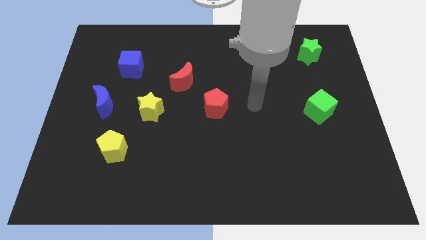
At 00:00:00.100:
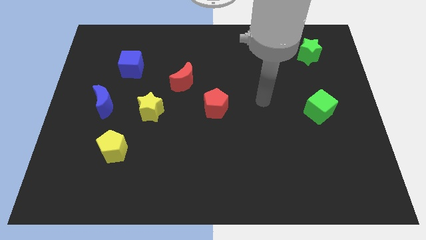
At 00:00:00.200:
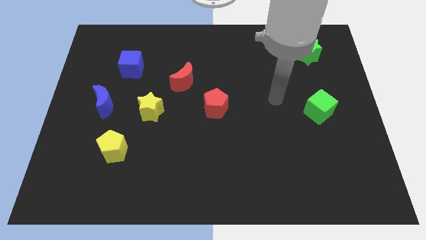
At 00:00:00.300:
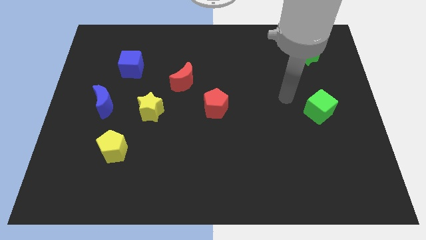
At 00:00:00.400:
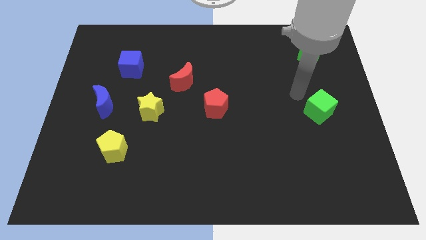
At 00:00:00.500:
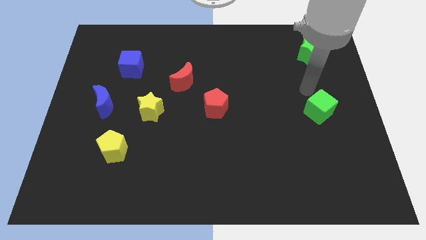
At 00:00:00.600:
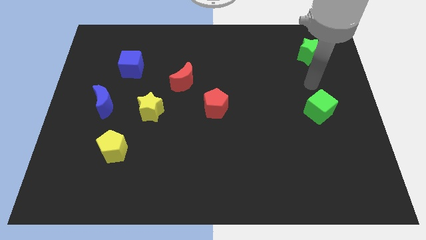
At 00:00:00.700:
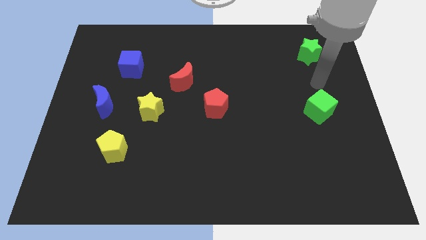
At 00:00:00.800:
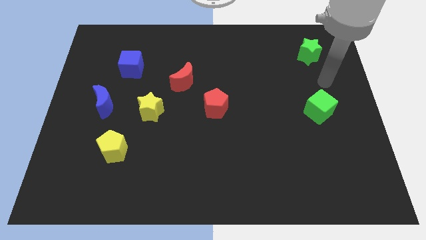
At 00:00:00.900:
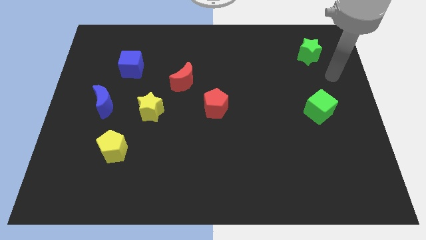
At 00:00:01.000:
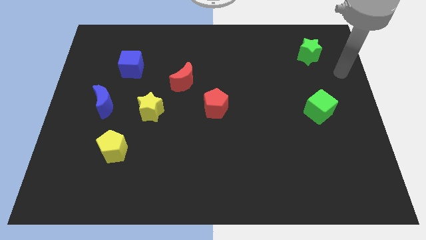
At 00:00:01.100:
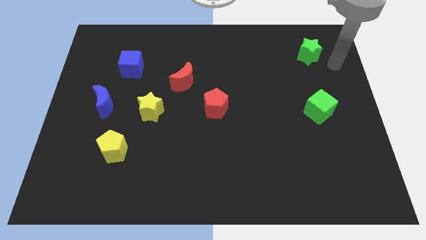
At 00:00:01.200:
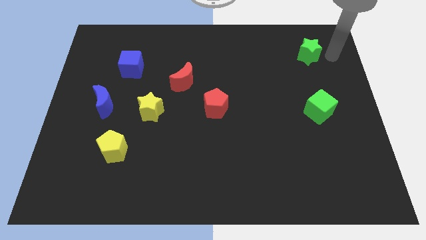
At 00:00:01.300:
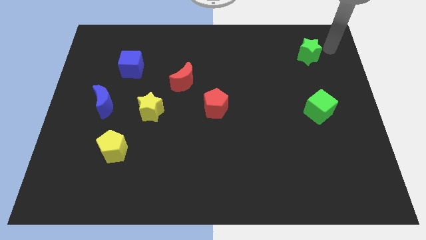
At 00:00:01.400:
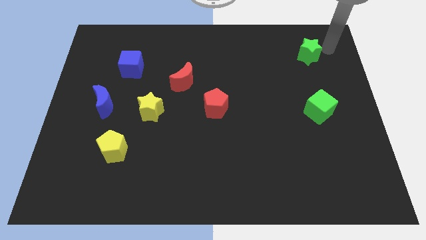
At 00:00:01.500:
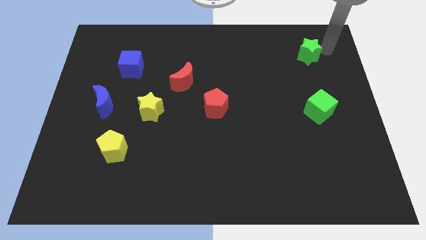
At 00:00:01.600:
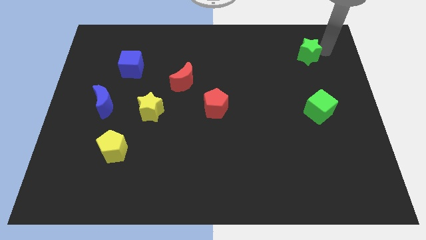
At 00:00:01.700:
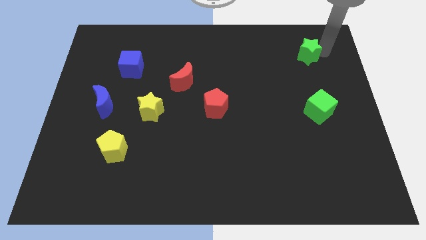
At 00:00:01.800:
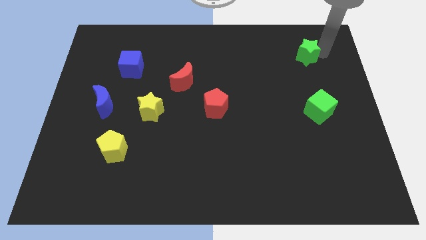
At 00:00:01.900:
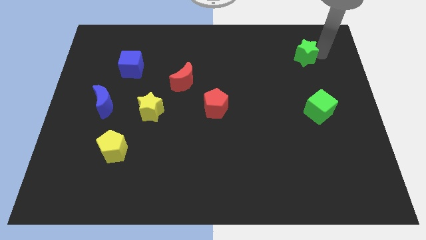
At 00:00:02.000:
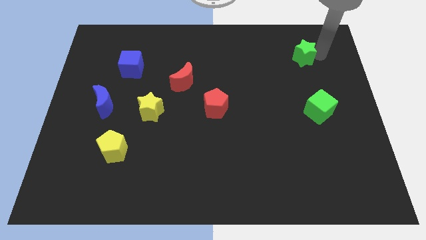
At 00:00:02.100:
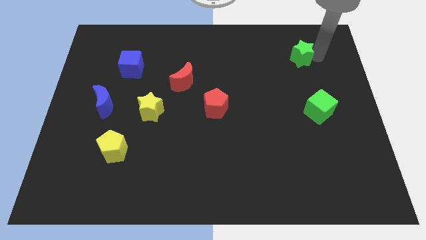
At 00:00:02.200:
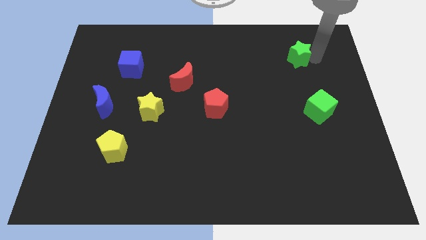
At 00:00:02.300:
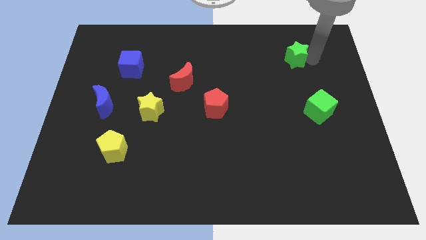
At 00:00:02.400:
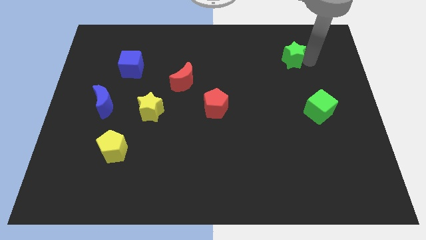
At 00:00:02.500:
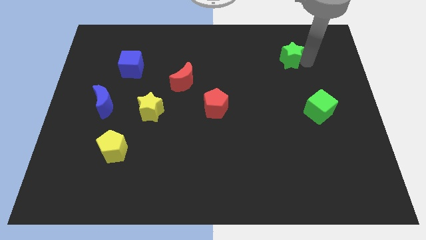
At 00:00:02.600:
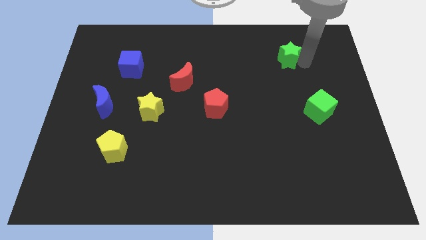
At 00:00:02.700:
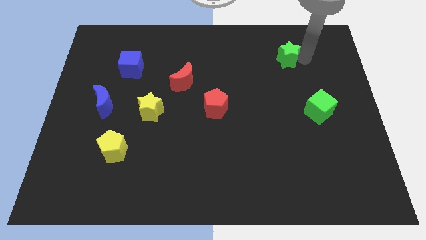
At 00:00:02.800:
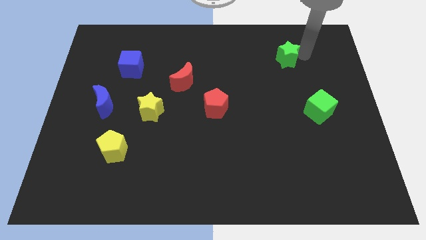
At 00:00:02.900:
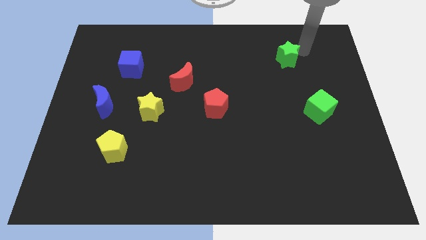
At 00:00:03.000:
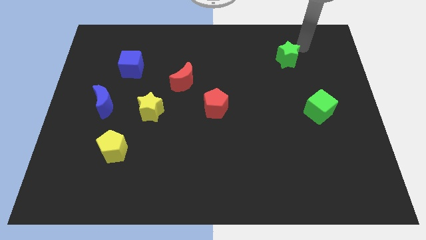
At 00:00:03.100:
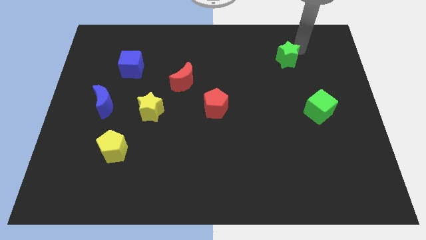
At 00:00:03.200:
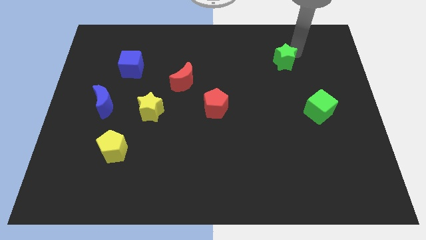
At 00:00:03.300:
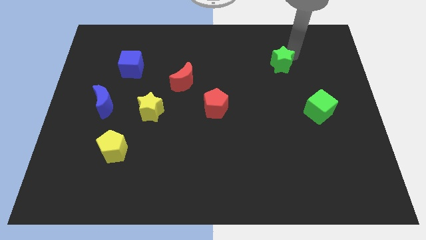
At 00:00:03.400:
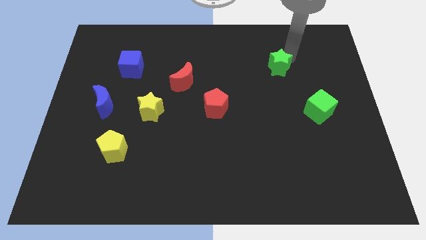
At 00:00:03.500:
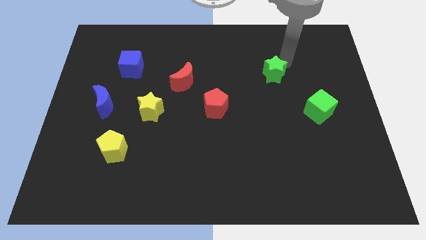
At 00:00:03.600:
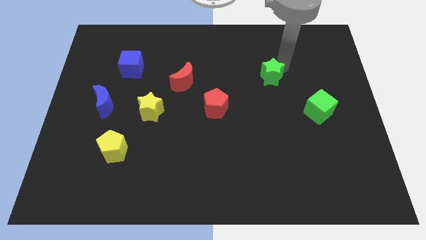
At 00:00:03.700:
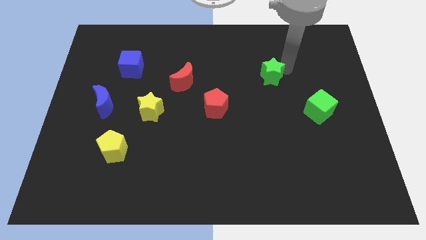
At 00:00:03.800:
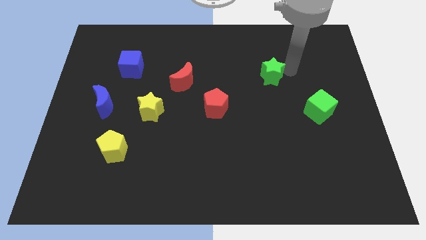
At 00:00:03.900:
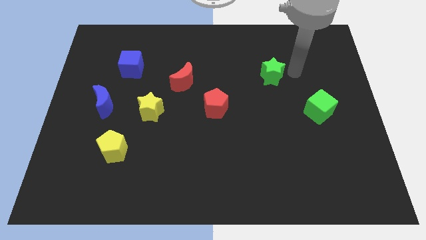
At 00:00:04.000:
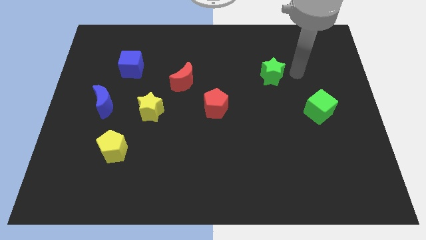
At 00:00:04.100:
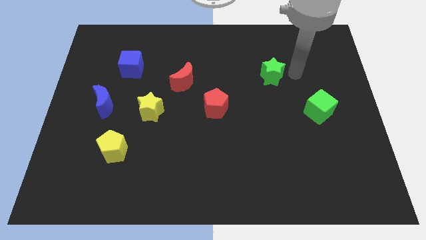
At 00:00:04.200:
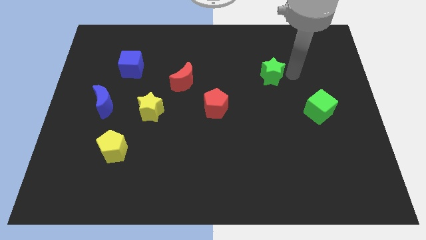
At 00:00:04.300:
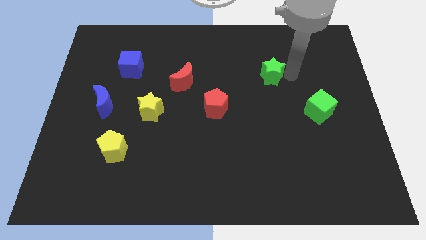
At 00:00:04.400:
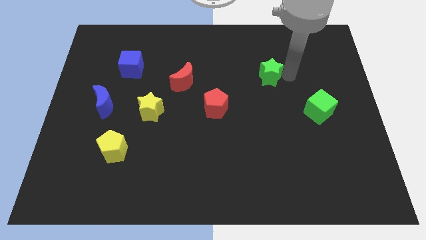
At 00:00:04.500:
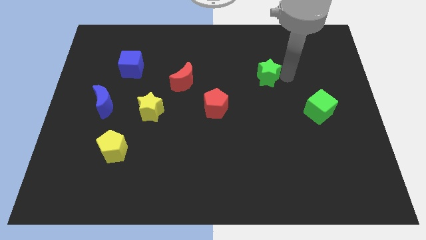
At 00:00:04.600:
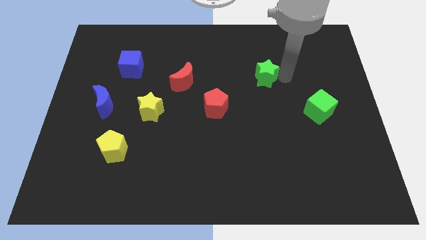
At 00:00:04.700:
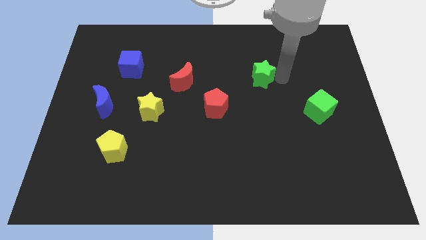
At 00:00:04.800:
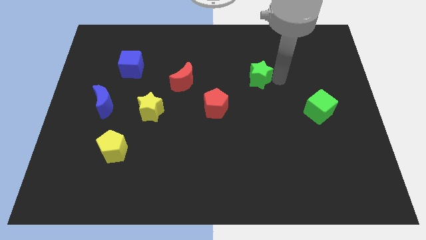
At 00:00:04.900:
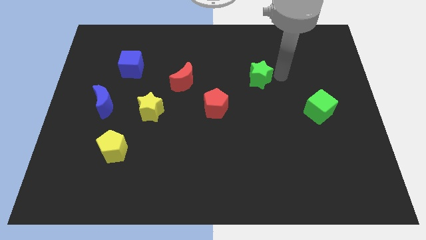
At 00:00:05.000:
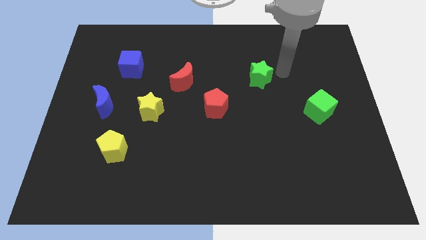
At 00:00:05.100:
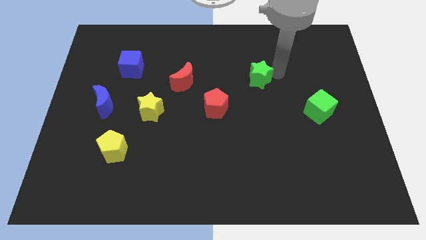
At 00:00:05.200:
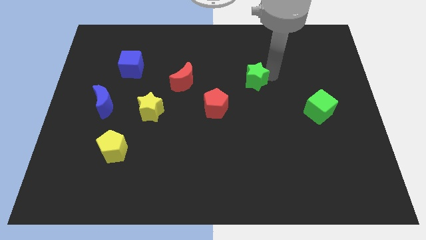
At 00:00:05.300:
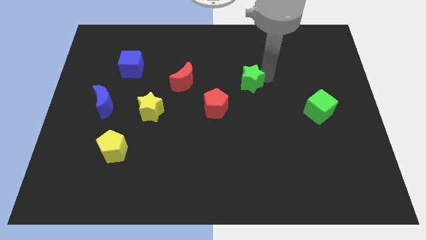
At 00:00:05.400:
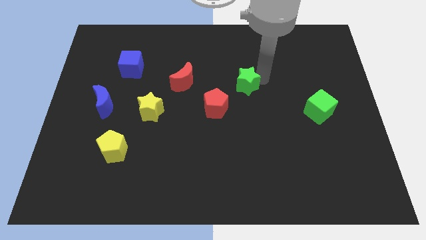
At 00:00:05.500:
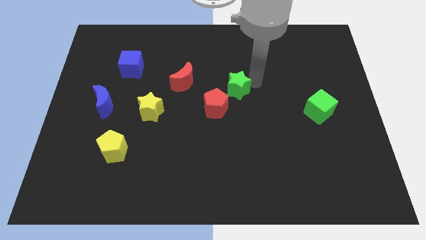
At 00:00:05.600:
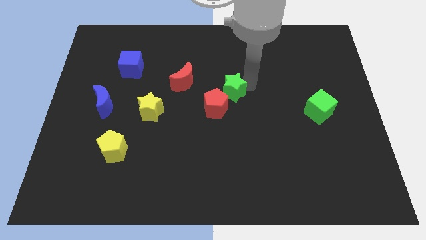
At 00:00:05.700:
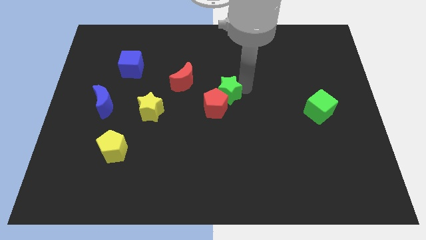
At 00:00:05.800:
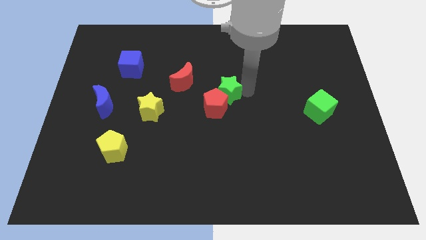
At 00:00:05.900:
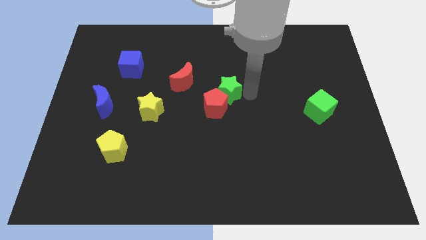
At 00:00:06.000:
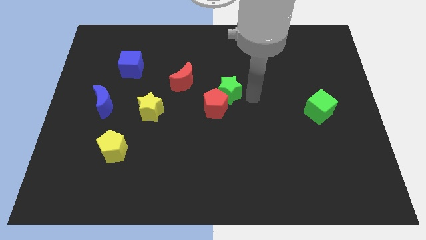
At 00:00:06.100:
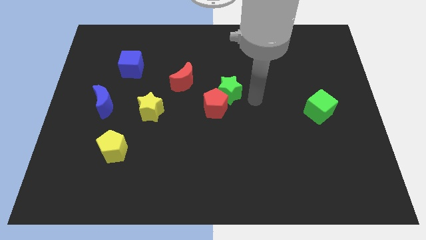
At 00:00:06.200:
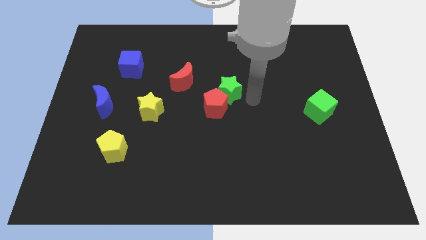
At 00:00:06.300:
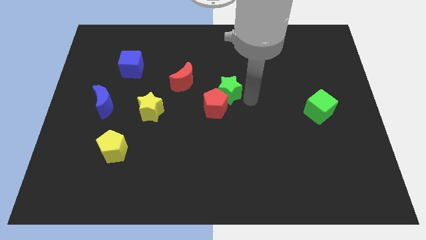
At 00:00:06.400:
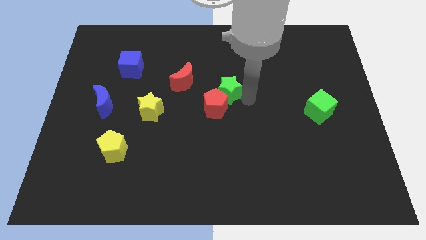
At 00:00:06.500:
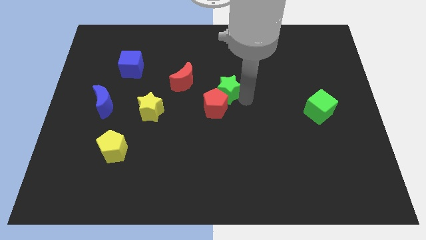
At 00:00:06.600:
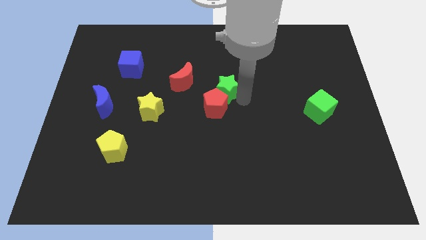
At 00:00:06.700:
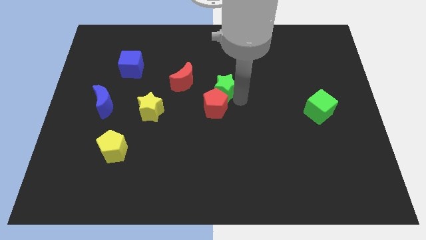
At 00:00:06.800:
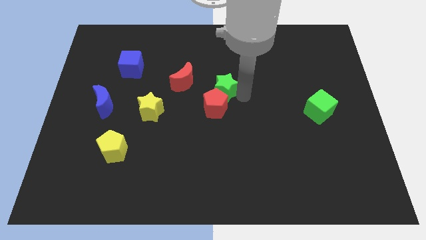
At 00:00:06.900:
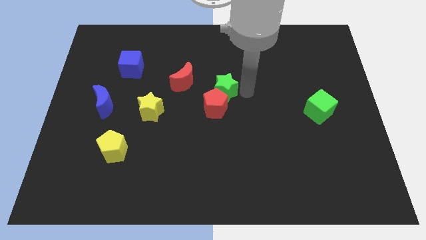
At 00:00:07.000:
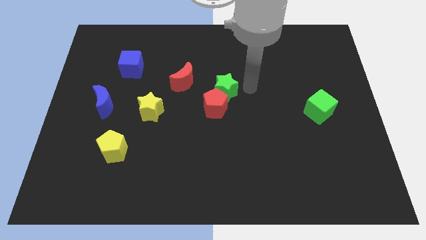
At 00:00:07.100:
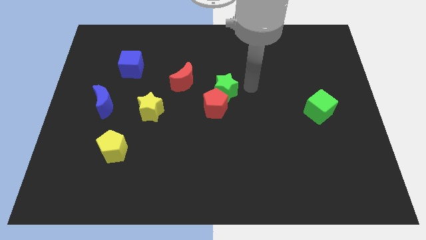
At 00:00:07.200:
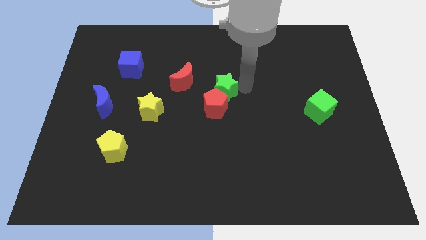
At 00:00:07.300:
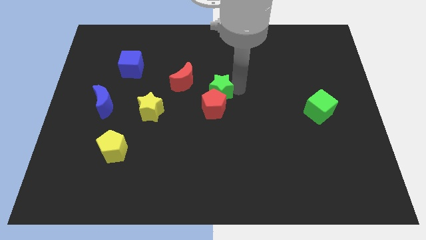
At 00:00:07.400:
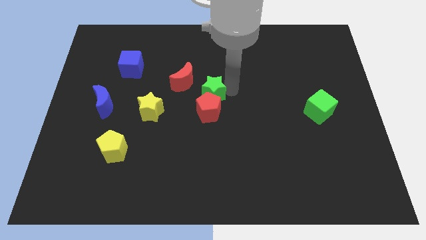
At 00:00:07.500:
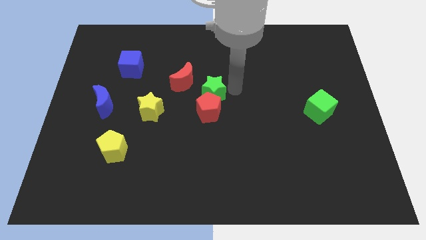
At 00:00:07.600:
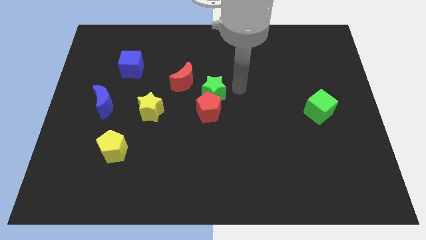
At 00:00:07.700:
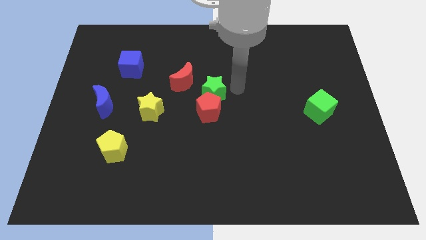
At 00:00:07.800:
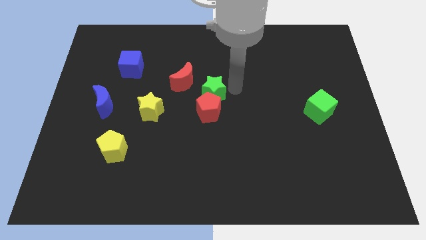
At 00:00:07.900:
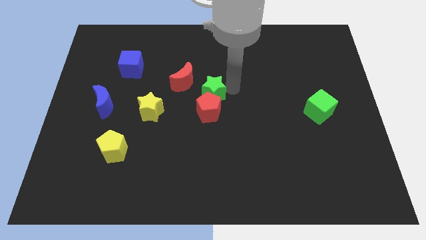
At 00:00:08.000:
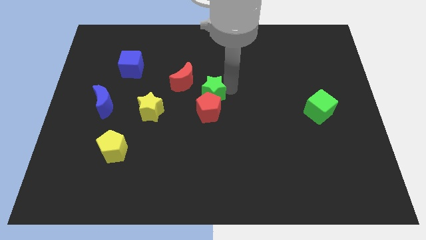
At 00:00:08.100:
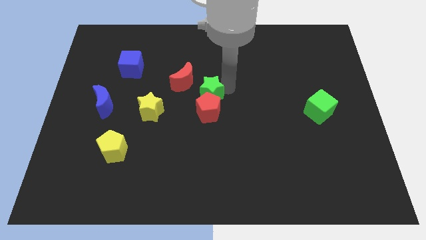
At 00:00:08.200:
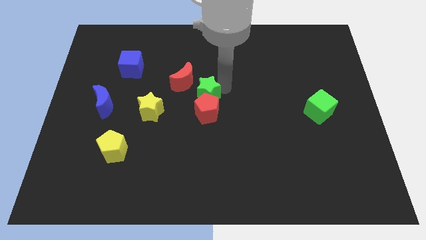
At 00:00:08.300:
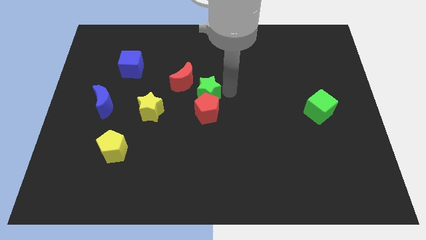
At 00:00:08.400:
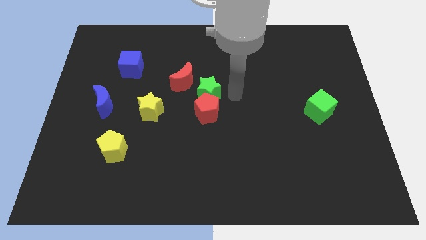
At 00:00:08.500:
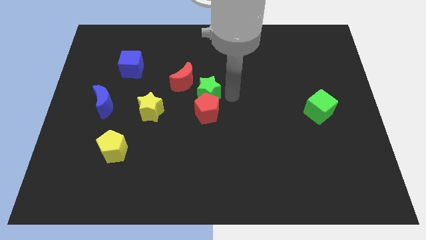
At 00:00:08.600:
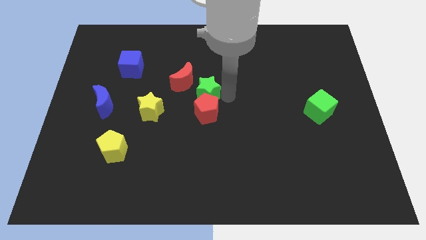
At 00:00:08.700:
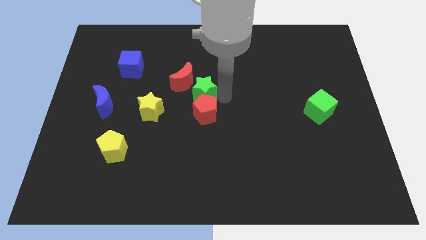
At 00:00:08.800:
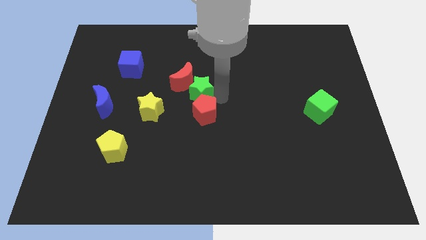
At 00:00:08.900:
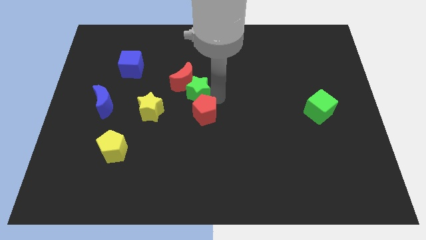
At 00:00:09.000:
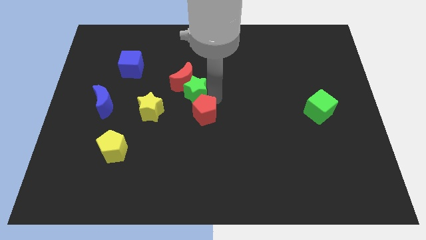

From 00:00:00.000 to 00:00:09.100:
push the green star diagonally up and to the right of the yellow star
